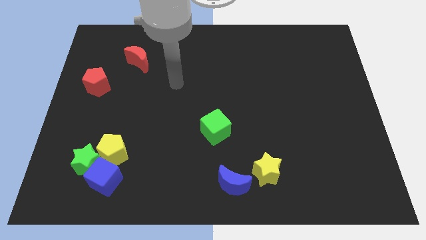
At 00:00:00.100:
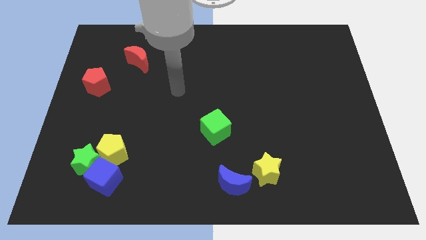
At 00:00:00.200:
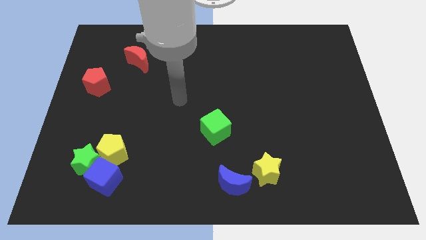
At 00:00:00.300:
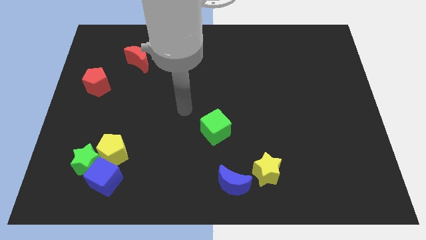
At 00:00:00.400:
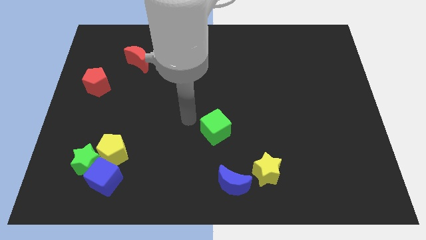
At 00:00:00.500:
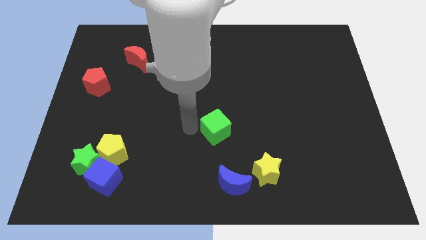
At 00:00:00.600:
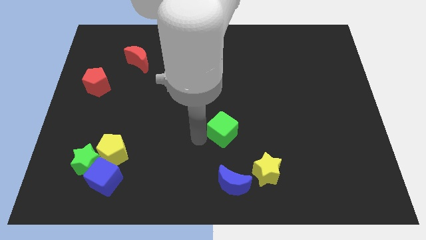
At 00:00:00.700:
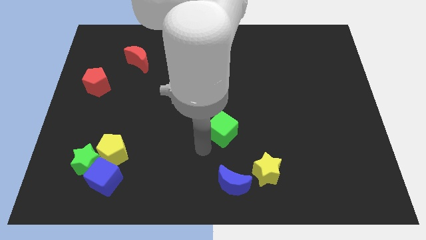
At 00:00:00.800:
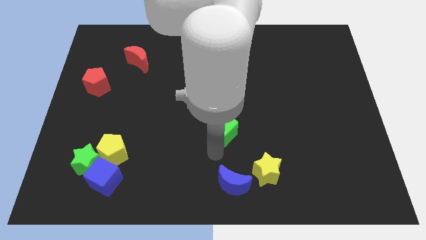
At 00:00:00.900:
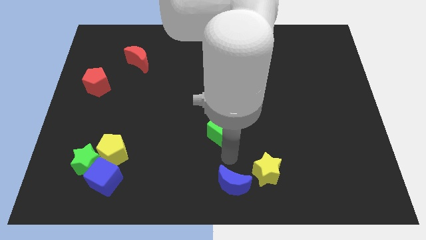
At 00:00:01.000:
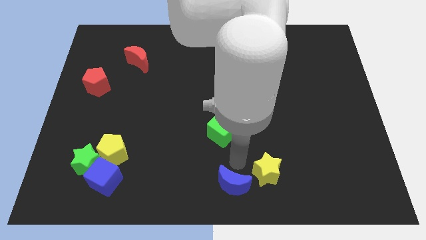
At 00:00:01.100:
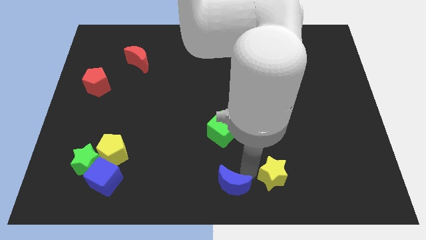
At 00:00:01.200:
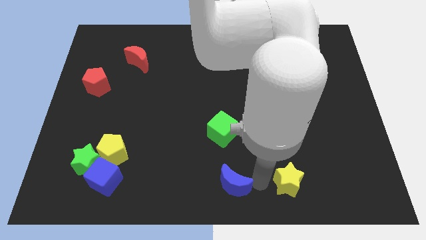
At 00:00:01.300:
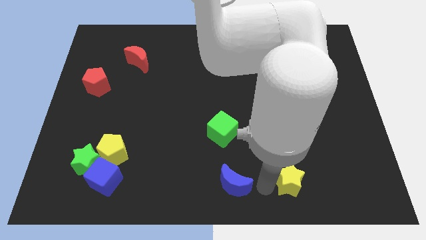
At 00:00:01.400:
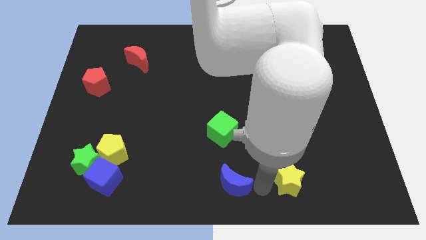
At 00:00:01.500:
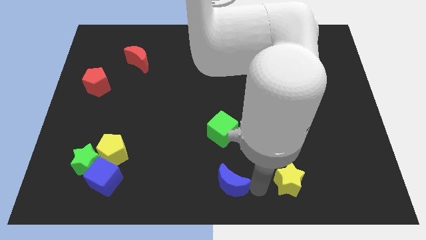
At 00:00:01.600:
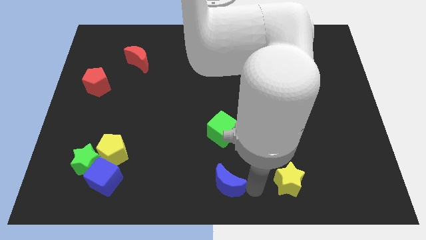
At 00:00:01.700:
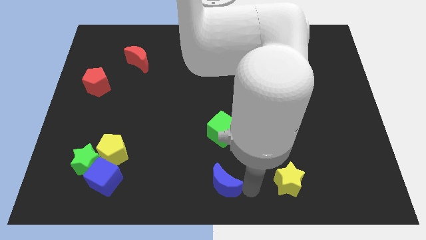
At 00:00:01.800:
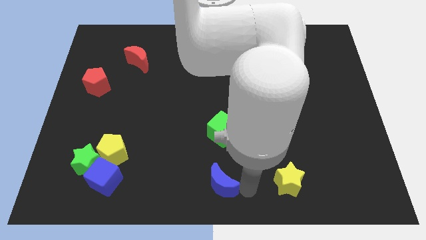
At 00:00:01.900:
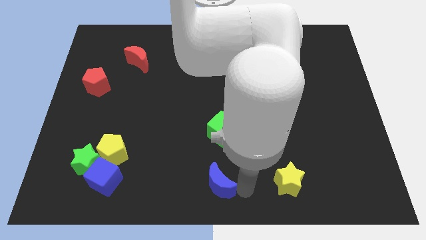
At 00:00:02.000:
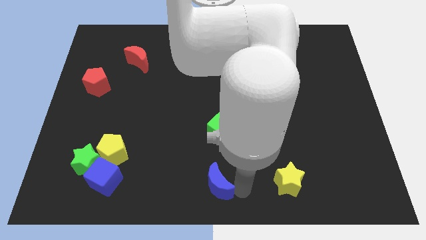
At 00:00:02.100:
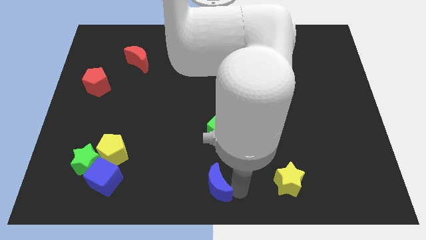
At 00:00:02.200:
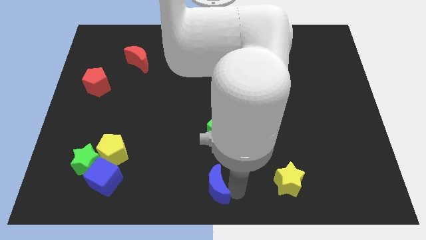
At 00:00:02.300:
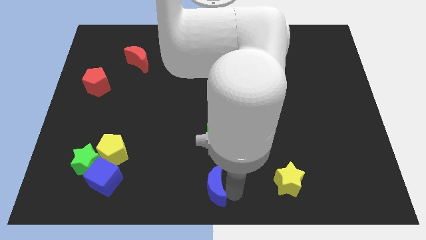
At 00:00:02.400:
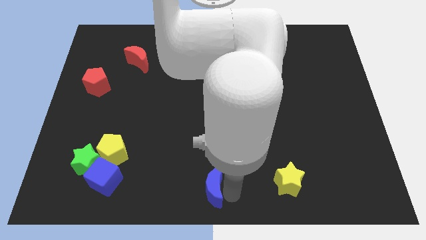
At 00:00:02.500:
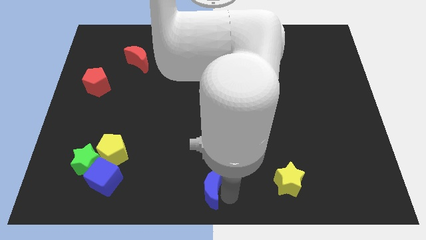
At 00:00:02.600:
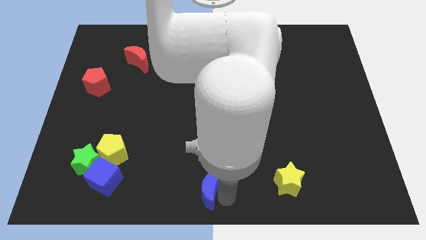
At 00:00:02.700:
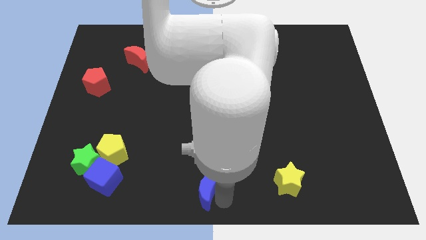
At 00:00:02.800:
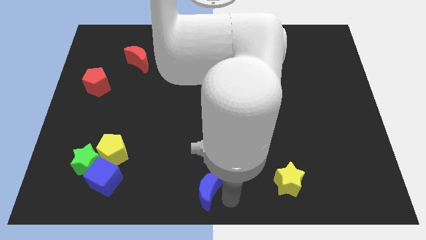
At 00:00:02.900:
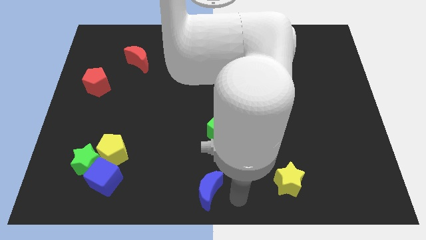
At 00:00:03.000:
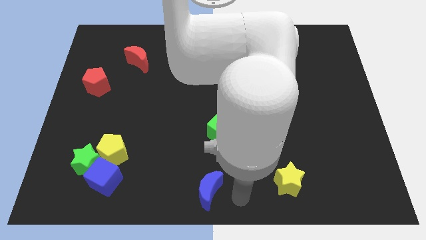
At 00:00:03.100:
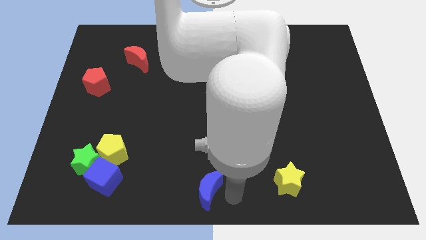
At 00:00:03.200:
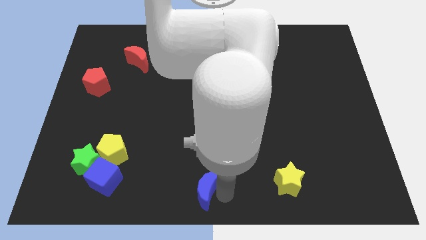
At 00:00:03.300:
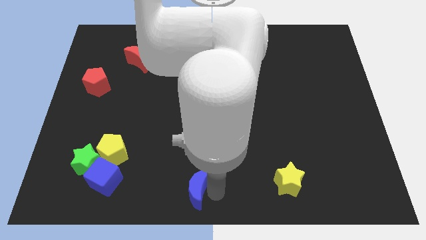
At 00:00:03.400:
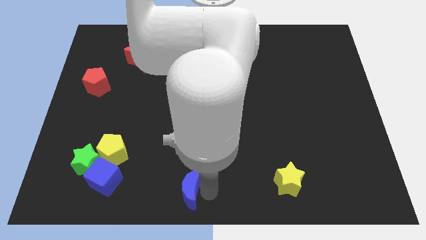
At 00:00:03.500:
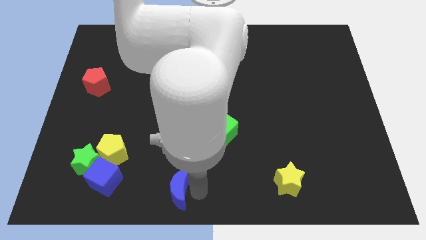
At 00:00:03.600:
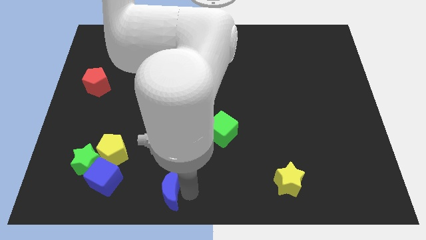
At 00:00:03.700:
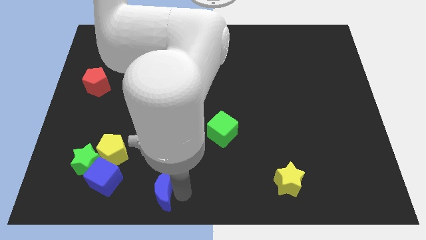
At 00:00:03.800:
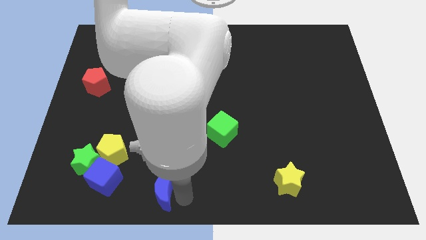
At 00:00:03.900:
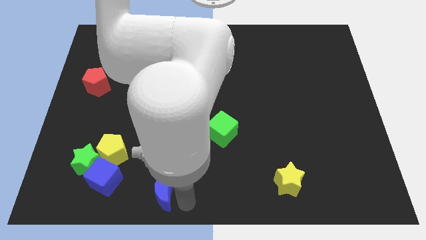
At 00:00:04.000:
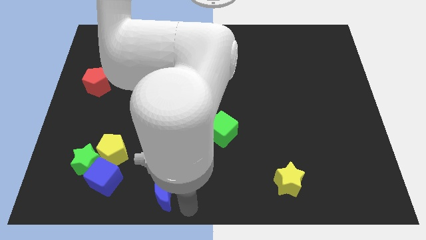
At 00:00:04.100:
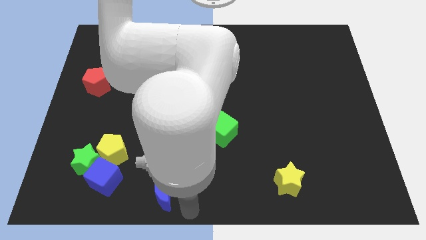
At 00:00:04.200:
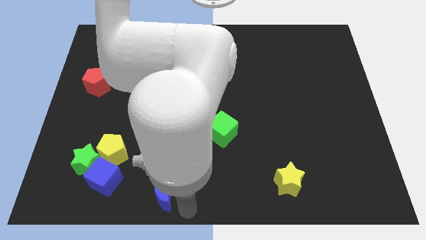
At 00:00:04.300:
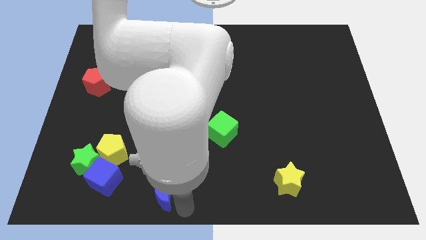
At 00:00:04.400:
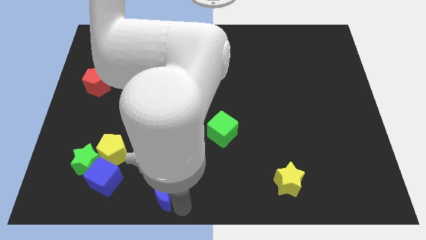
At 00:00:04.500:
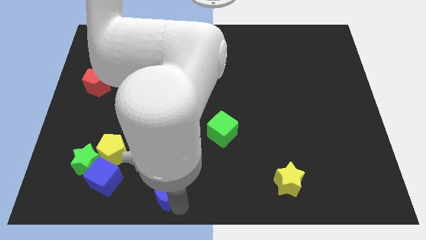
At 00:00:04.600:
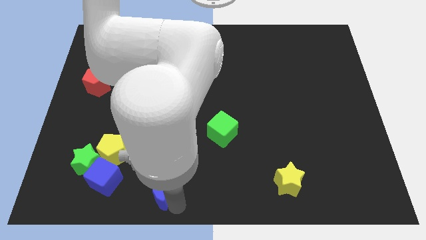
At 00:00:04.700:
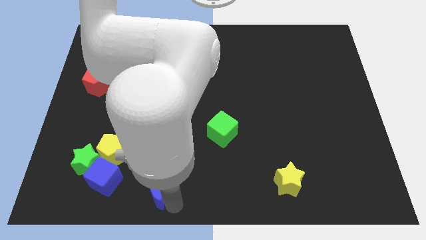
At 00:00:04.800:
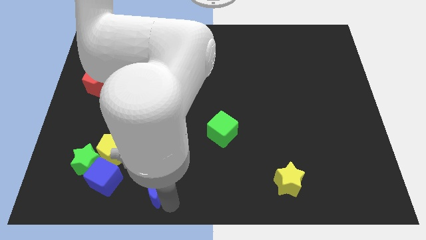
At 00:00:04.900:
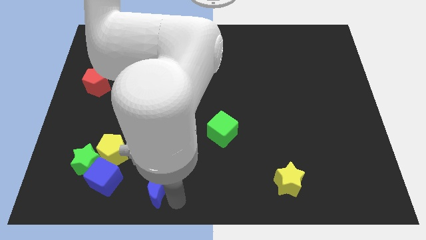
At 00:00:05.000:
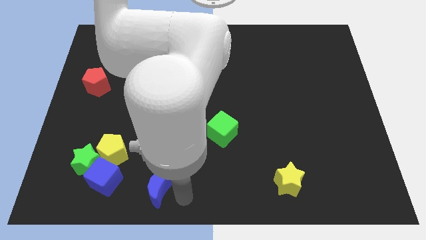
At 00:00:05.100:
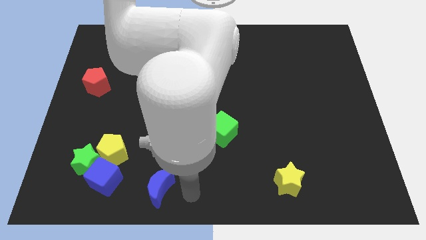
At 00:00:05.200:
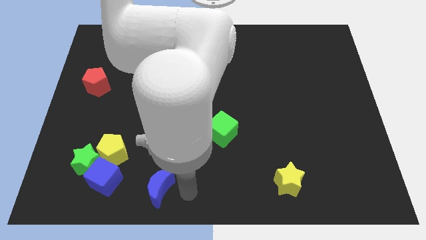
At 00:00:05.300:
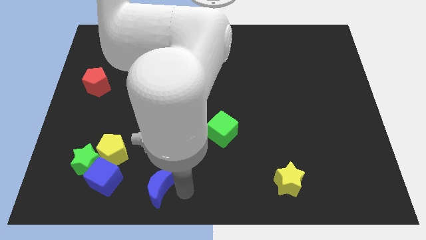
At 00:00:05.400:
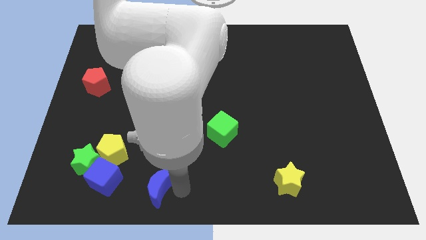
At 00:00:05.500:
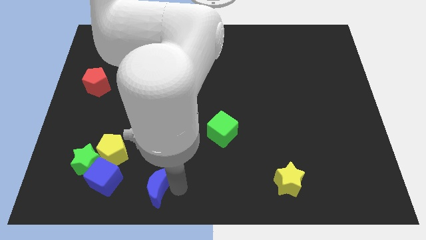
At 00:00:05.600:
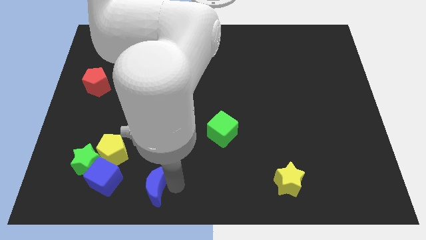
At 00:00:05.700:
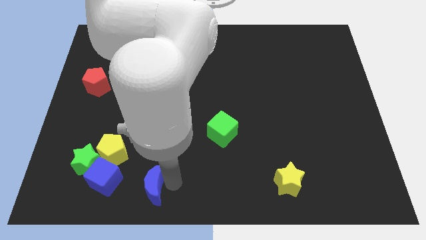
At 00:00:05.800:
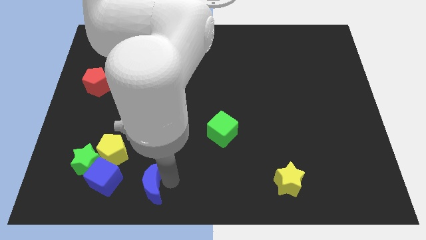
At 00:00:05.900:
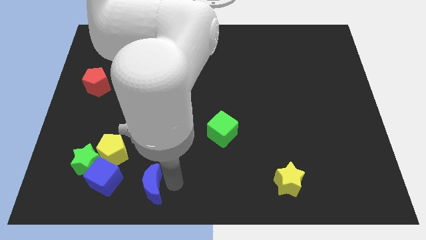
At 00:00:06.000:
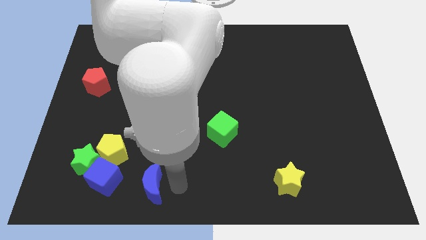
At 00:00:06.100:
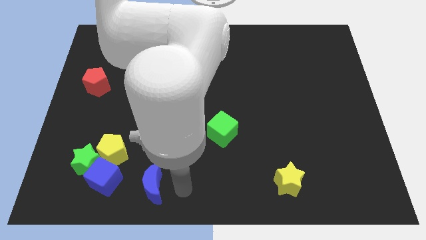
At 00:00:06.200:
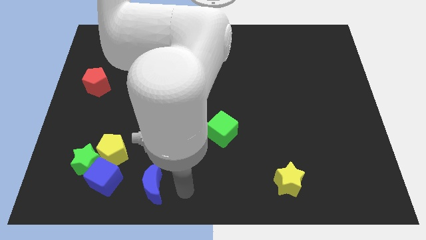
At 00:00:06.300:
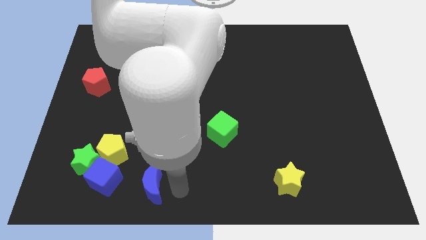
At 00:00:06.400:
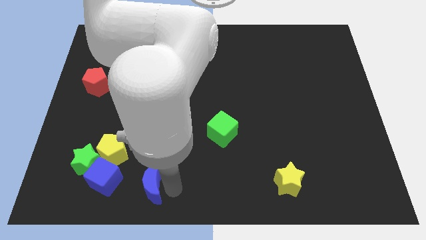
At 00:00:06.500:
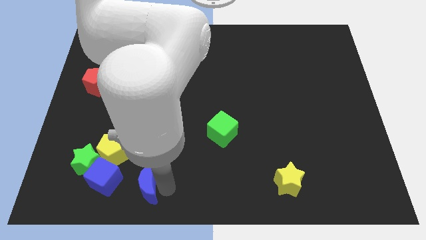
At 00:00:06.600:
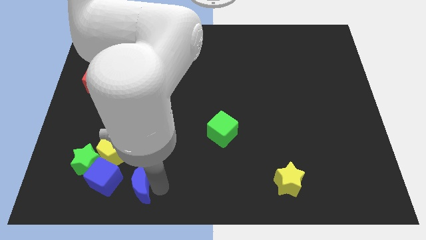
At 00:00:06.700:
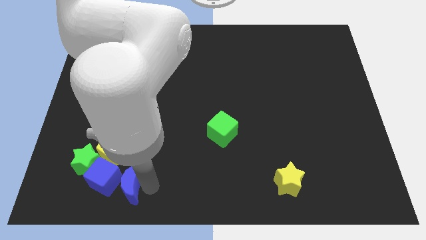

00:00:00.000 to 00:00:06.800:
put the blue moon towards the blue cube

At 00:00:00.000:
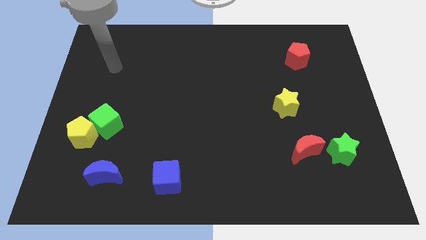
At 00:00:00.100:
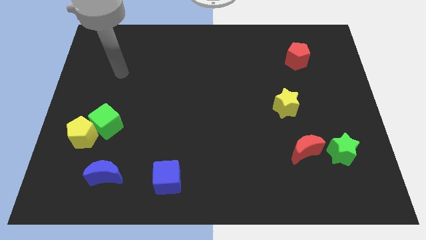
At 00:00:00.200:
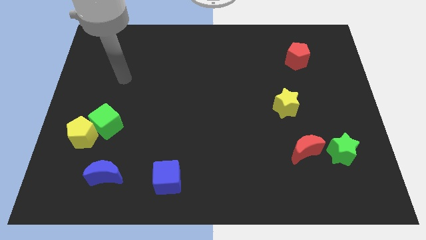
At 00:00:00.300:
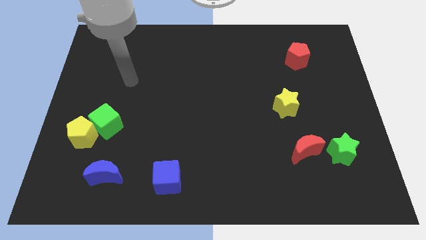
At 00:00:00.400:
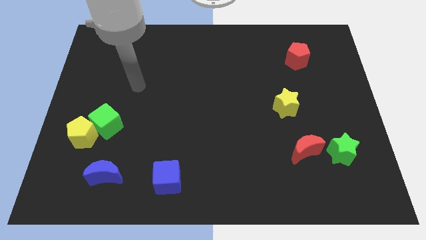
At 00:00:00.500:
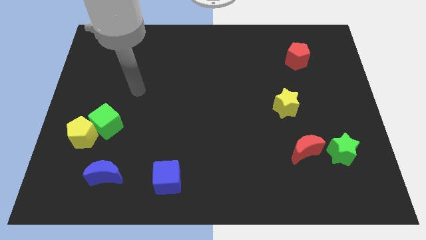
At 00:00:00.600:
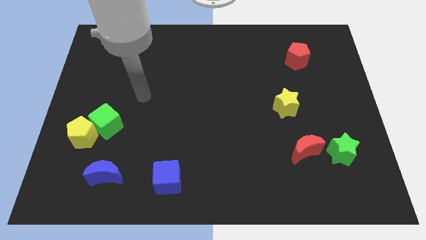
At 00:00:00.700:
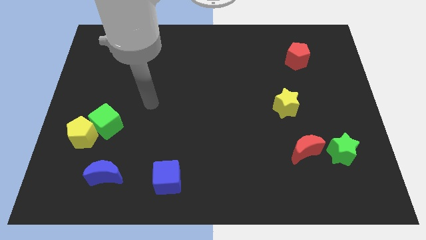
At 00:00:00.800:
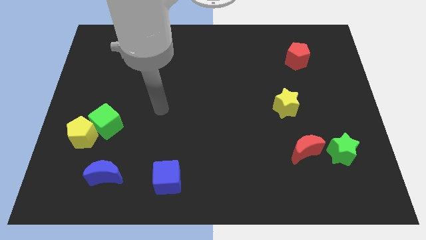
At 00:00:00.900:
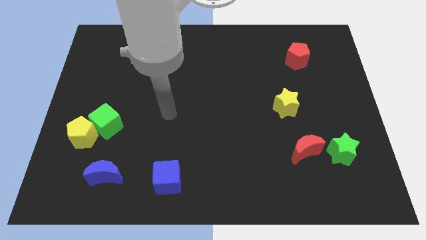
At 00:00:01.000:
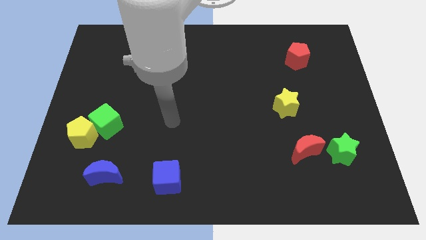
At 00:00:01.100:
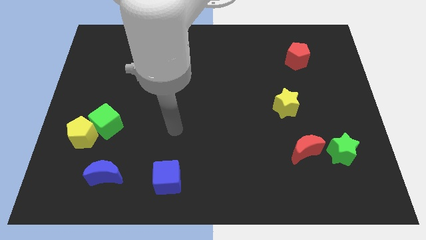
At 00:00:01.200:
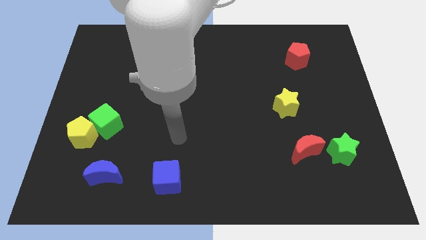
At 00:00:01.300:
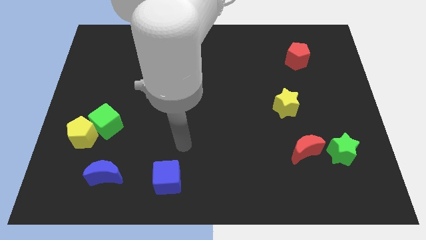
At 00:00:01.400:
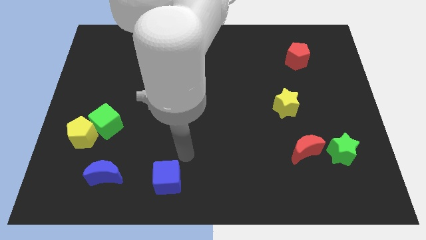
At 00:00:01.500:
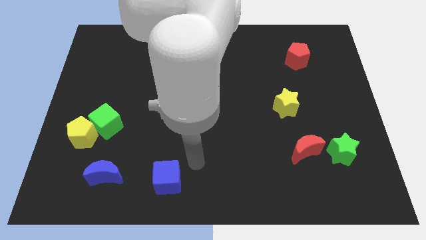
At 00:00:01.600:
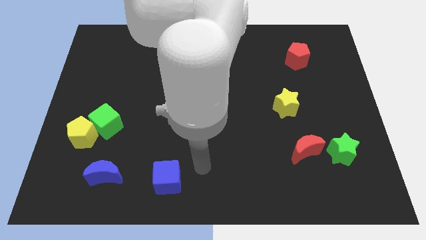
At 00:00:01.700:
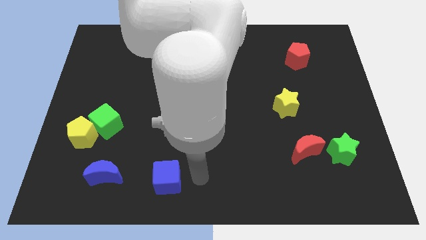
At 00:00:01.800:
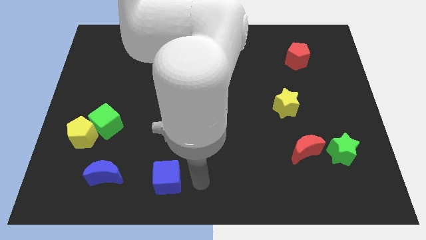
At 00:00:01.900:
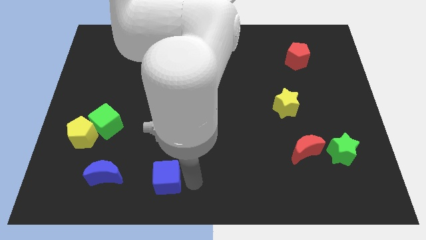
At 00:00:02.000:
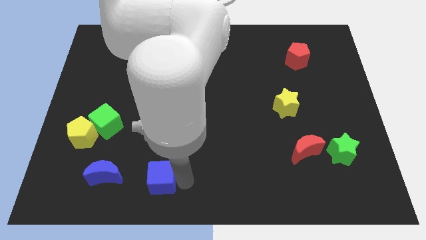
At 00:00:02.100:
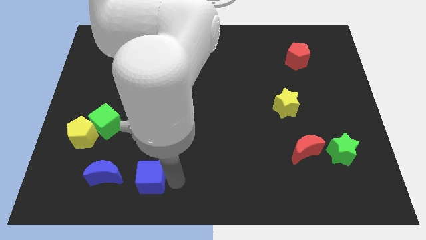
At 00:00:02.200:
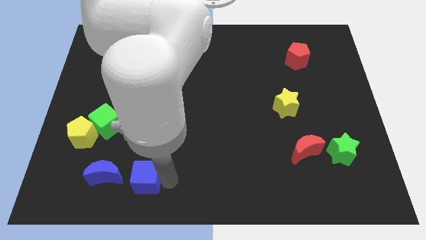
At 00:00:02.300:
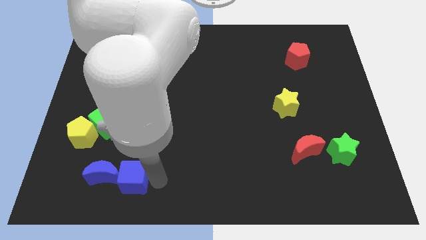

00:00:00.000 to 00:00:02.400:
push the blue cube towards the blue moon
